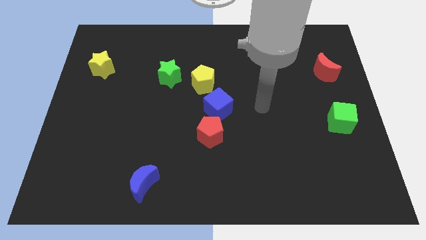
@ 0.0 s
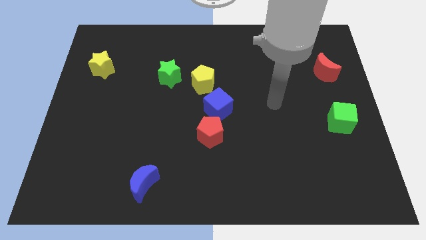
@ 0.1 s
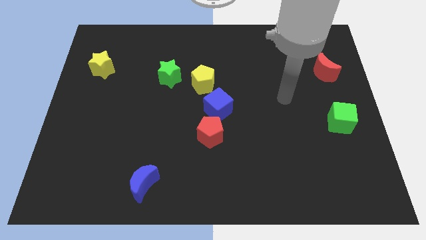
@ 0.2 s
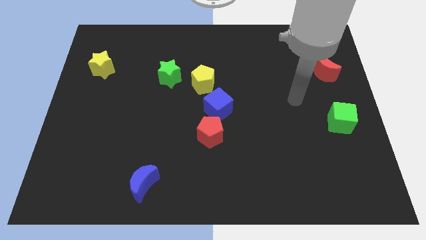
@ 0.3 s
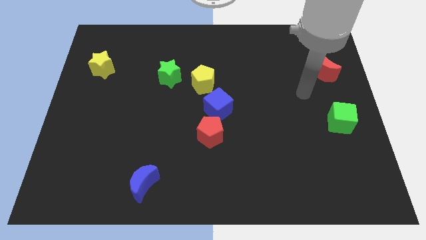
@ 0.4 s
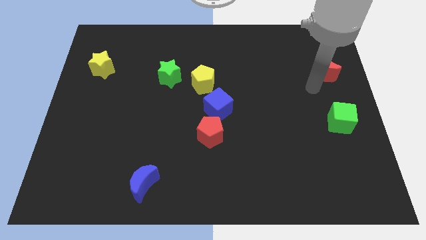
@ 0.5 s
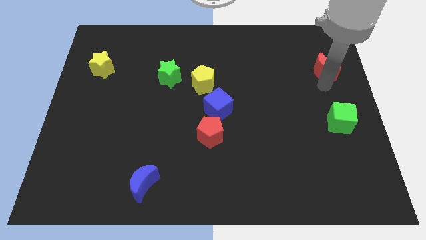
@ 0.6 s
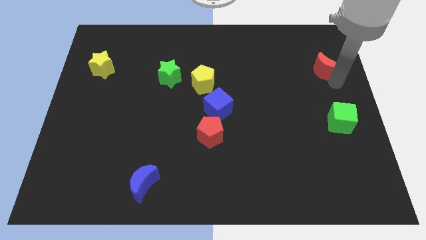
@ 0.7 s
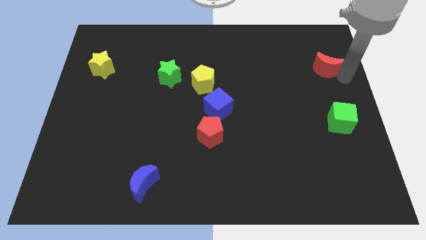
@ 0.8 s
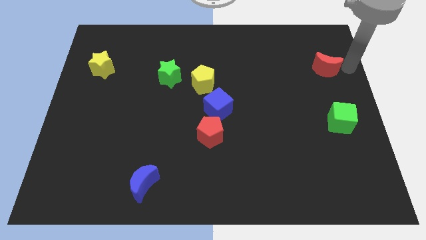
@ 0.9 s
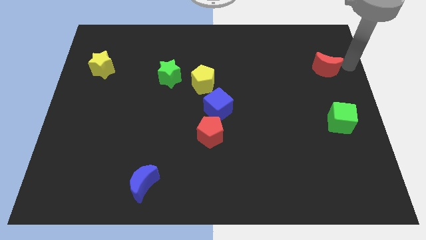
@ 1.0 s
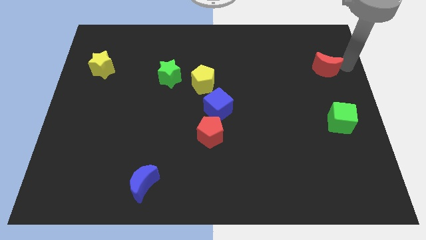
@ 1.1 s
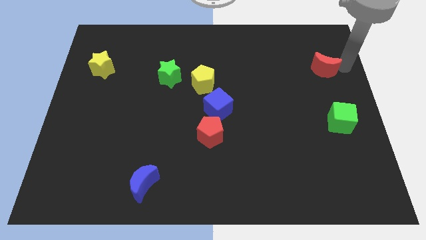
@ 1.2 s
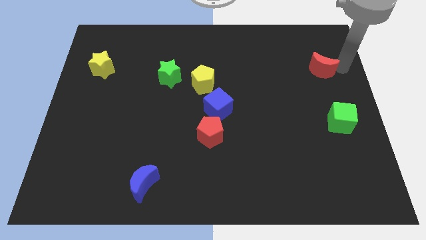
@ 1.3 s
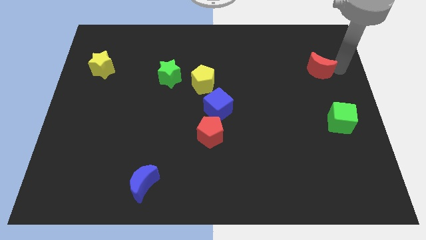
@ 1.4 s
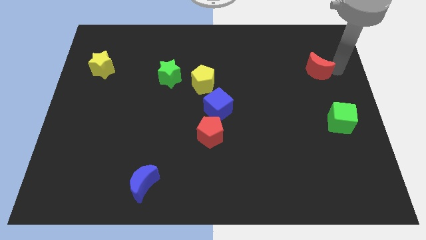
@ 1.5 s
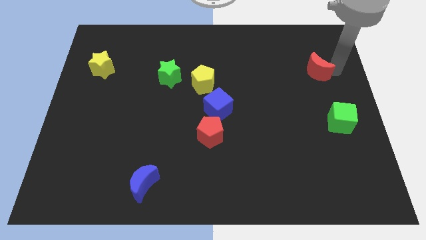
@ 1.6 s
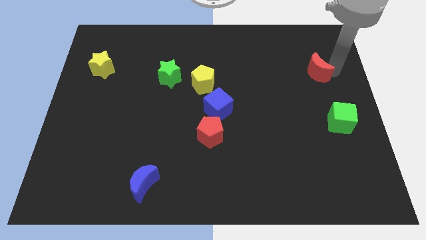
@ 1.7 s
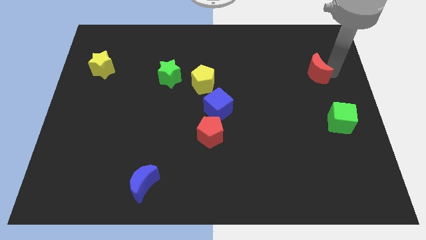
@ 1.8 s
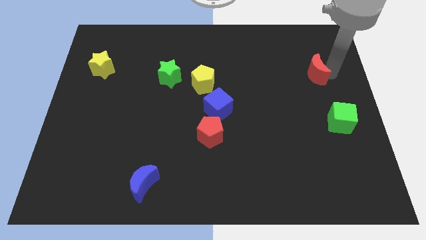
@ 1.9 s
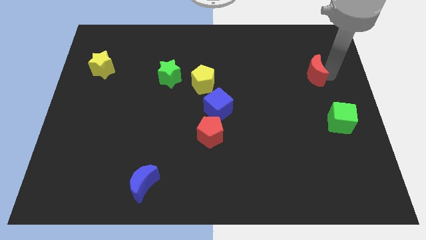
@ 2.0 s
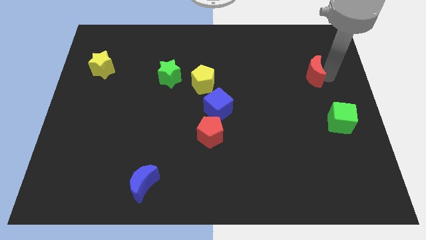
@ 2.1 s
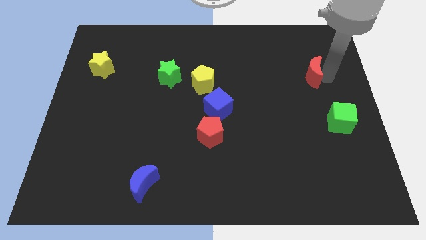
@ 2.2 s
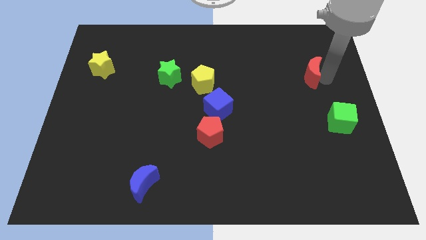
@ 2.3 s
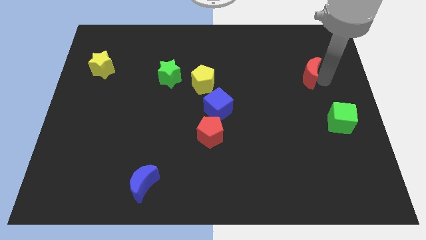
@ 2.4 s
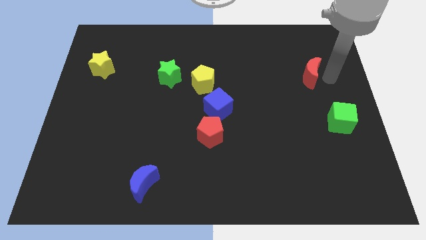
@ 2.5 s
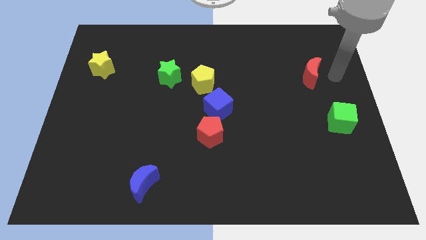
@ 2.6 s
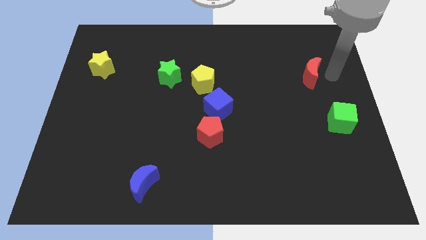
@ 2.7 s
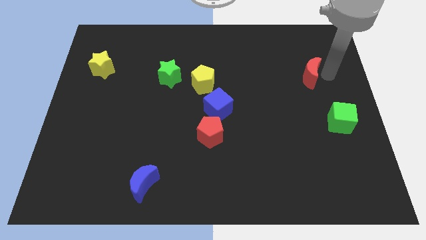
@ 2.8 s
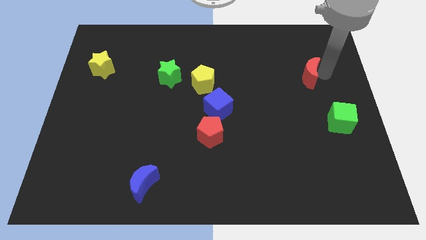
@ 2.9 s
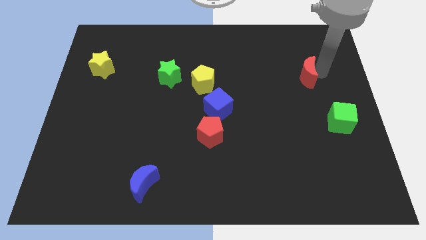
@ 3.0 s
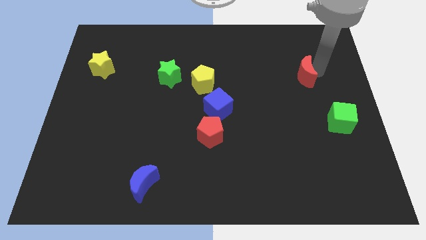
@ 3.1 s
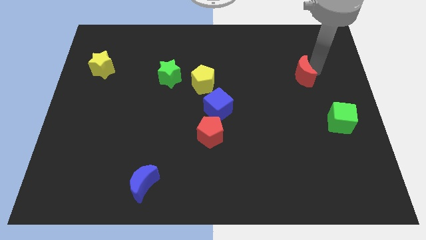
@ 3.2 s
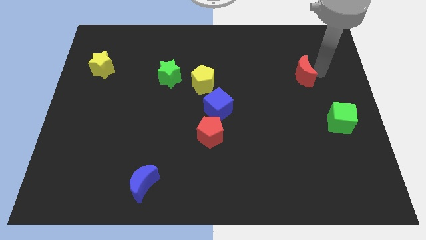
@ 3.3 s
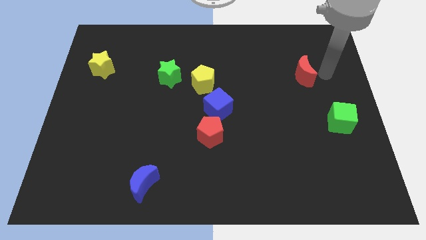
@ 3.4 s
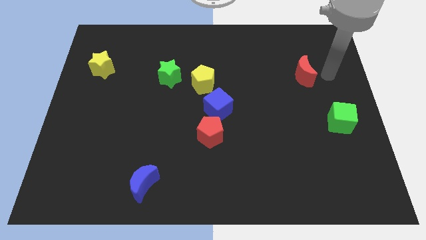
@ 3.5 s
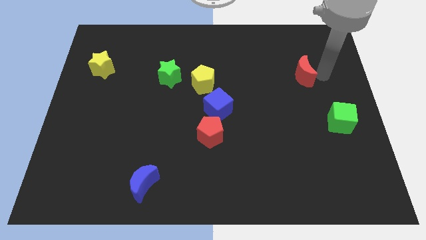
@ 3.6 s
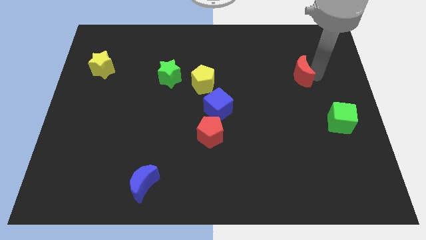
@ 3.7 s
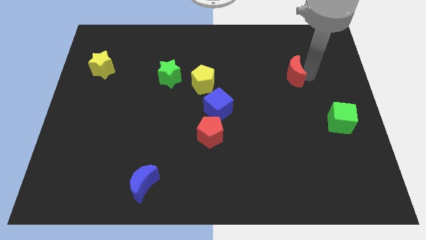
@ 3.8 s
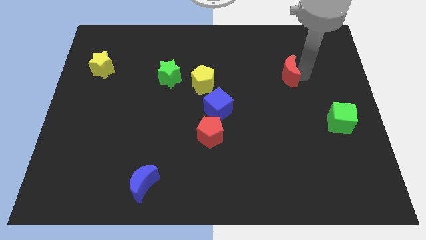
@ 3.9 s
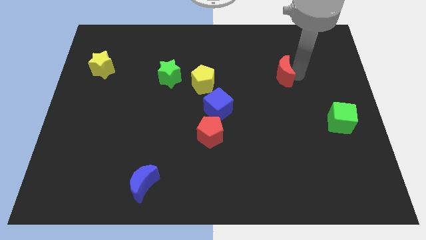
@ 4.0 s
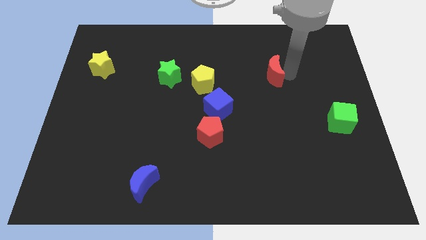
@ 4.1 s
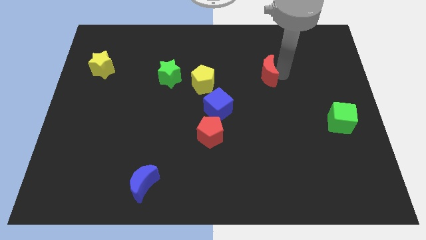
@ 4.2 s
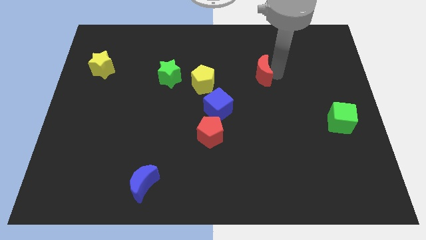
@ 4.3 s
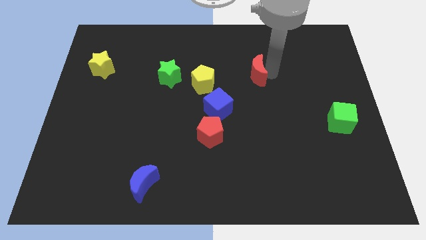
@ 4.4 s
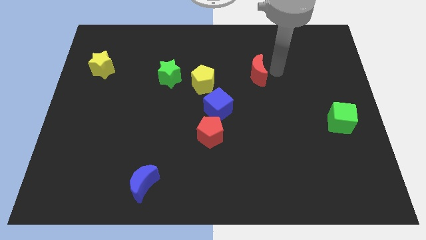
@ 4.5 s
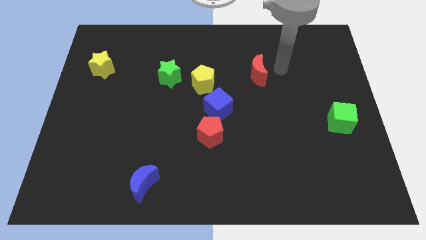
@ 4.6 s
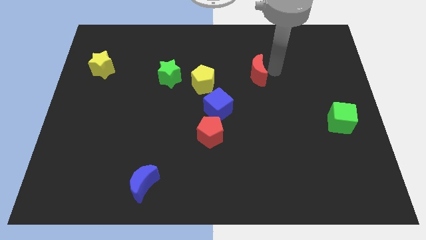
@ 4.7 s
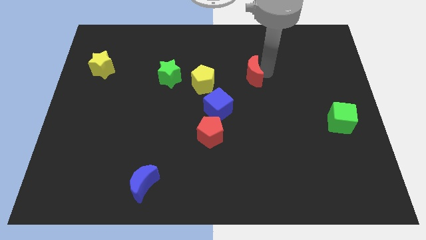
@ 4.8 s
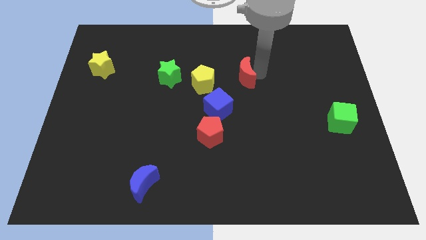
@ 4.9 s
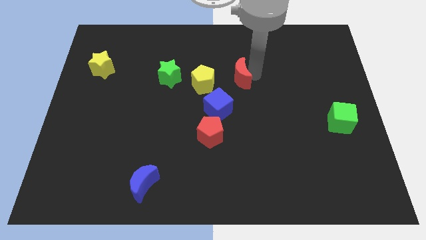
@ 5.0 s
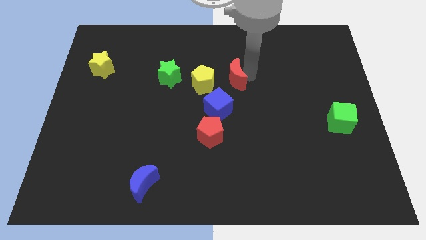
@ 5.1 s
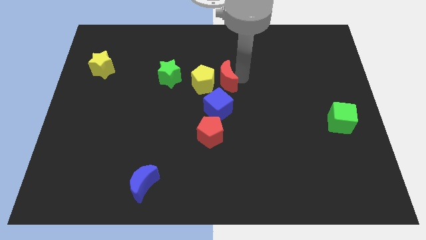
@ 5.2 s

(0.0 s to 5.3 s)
push the red moon towards the yellow pentagon

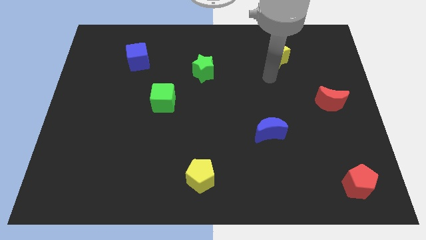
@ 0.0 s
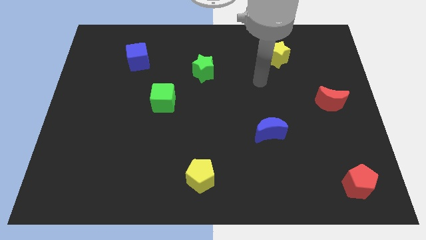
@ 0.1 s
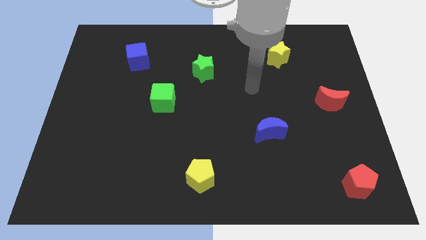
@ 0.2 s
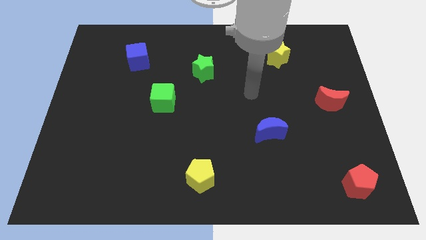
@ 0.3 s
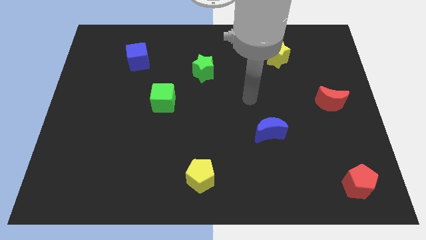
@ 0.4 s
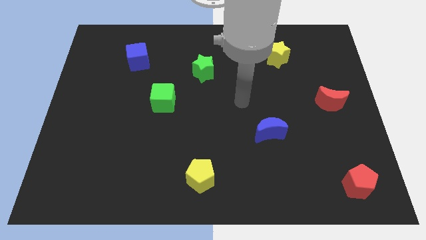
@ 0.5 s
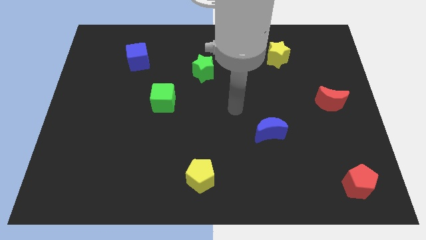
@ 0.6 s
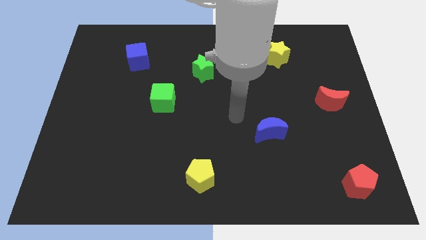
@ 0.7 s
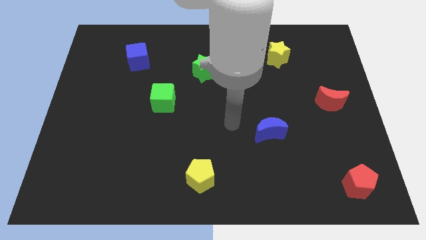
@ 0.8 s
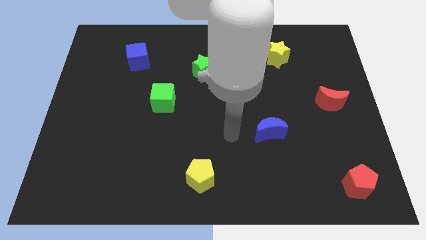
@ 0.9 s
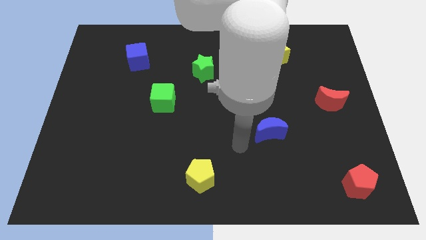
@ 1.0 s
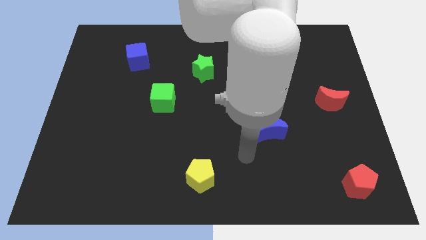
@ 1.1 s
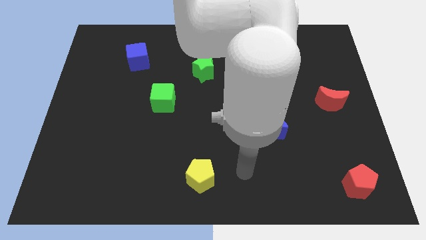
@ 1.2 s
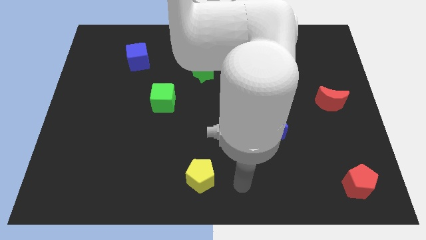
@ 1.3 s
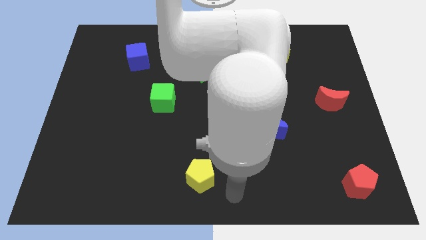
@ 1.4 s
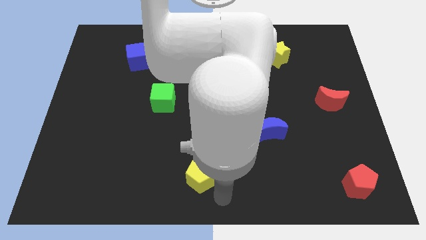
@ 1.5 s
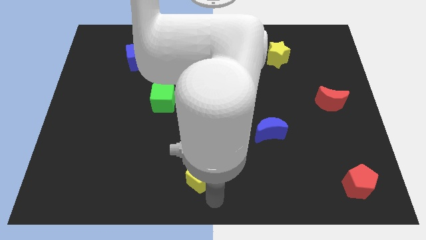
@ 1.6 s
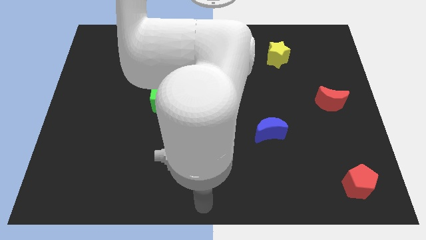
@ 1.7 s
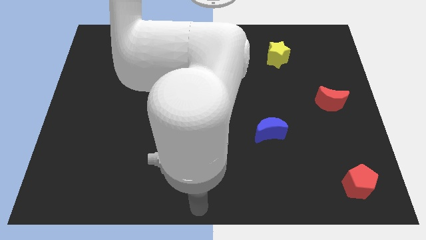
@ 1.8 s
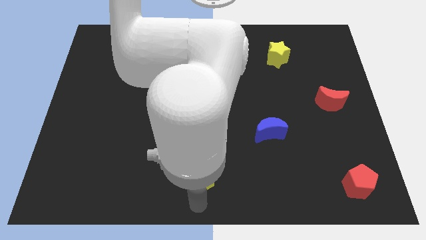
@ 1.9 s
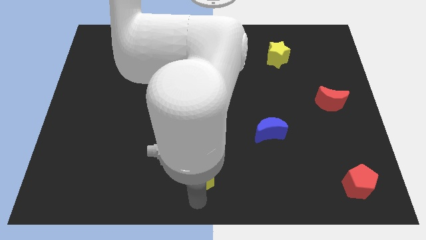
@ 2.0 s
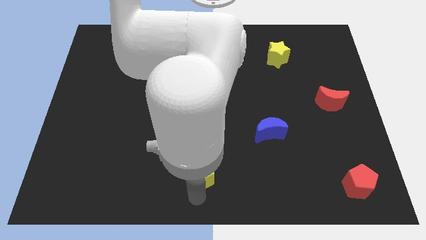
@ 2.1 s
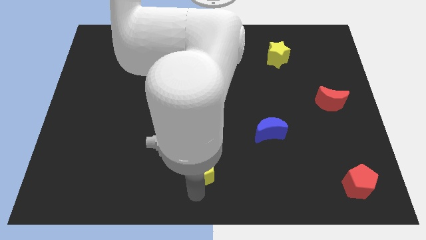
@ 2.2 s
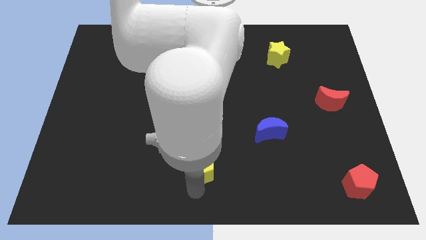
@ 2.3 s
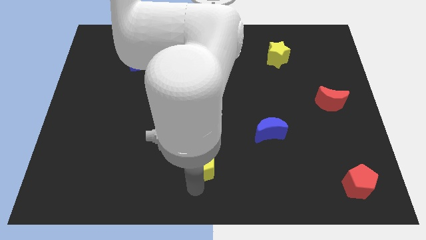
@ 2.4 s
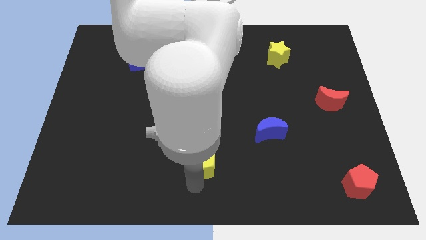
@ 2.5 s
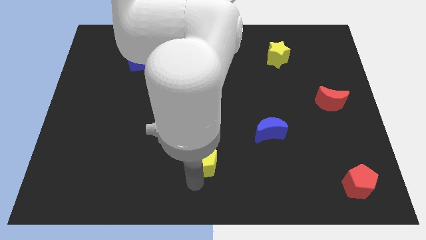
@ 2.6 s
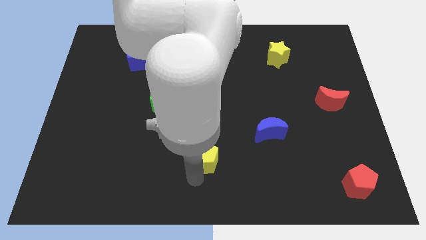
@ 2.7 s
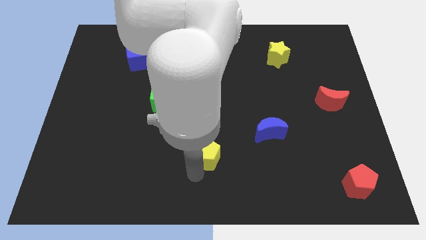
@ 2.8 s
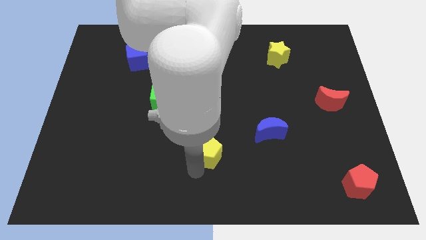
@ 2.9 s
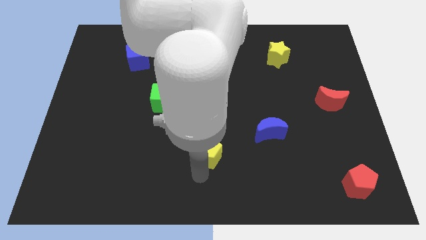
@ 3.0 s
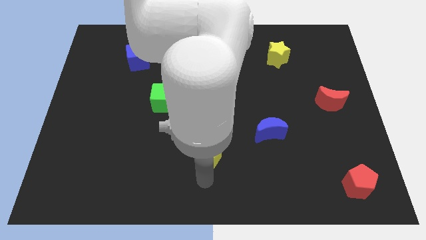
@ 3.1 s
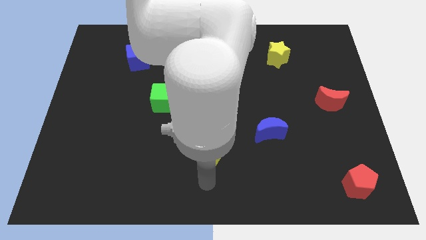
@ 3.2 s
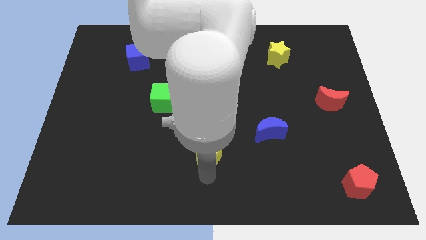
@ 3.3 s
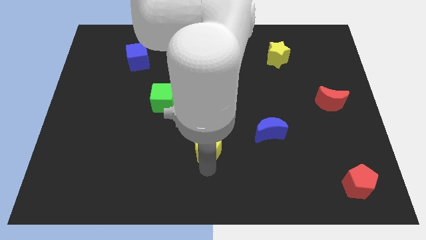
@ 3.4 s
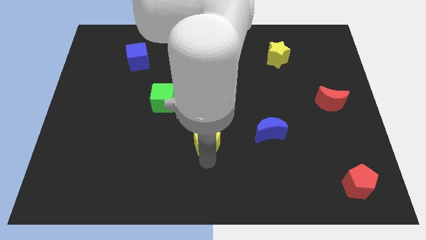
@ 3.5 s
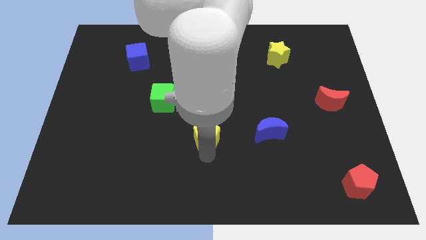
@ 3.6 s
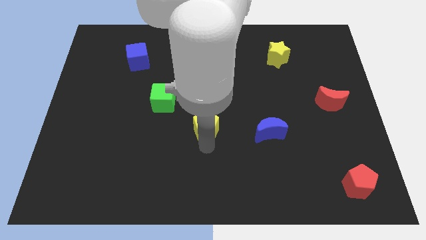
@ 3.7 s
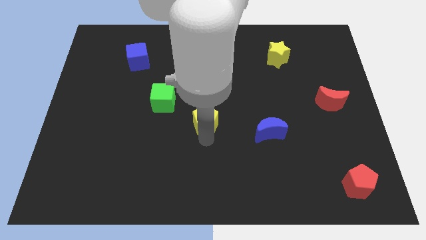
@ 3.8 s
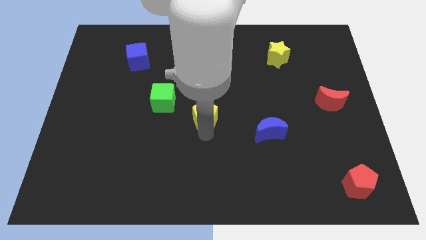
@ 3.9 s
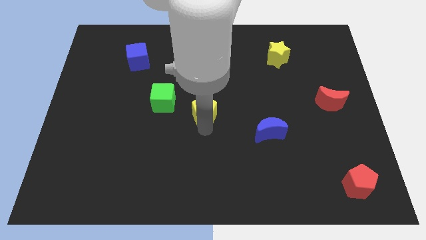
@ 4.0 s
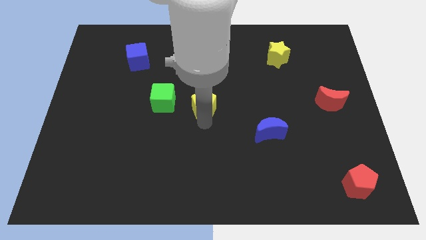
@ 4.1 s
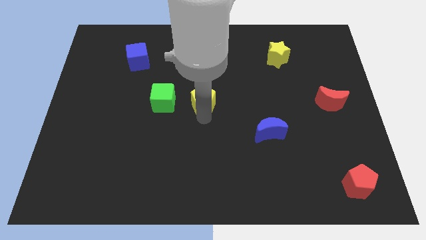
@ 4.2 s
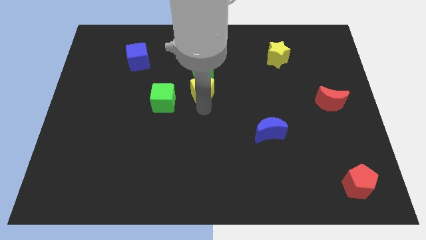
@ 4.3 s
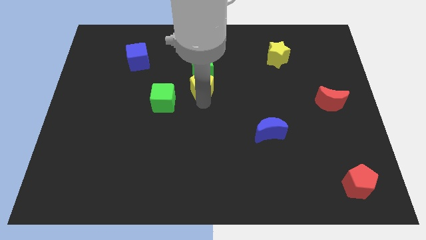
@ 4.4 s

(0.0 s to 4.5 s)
move the yellow pentagon towards the green star
